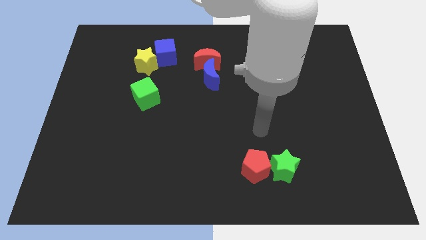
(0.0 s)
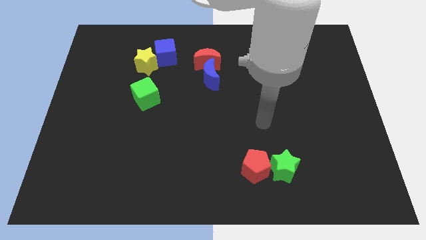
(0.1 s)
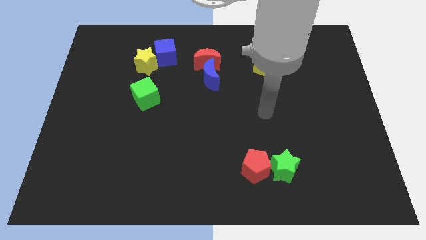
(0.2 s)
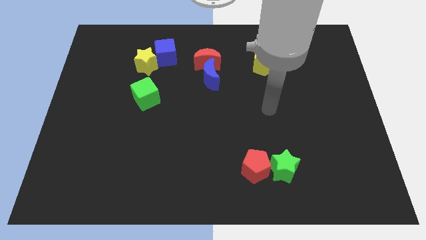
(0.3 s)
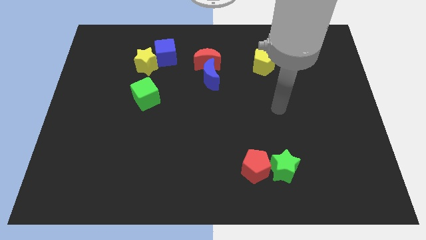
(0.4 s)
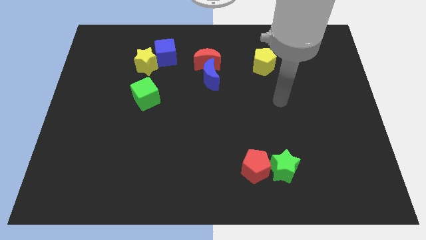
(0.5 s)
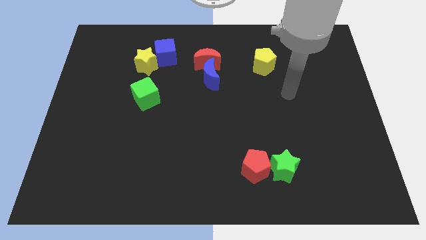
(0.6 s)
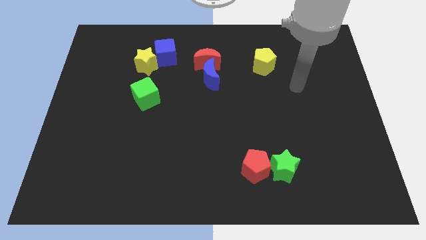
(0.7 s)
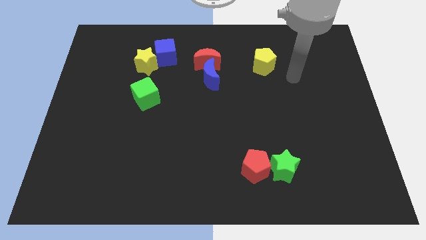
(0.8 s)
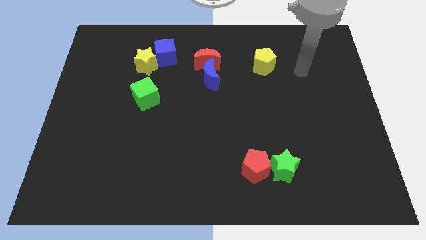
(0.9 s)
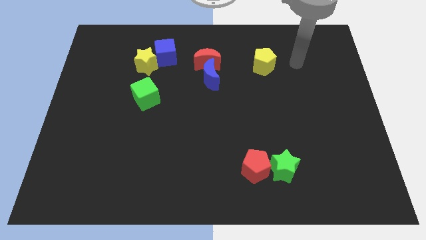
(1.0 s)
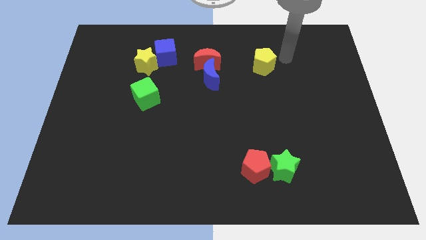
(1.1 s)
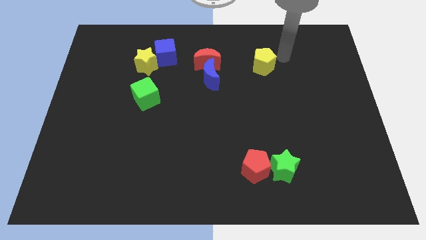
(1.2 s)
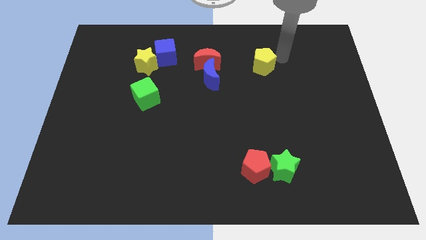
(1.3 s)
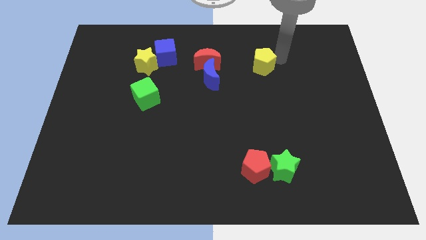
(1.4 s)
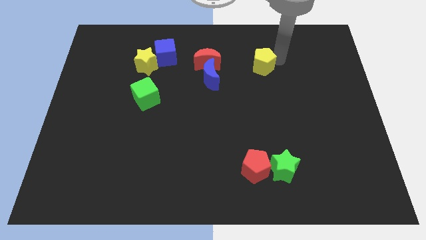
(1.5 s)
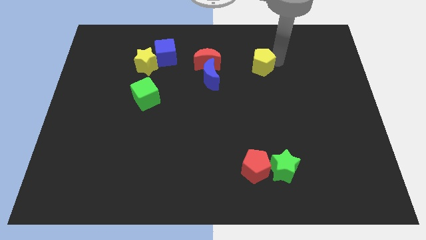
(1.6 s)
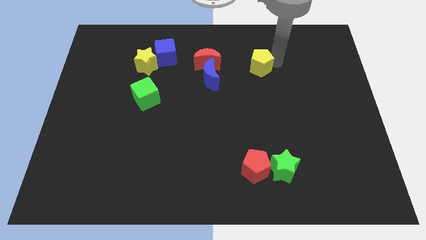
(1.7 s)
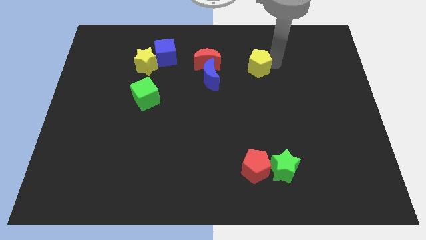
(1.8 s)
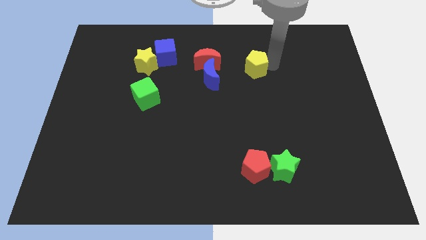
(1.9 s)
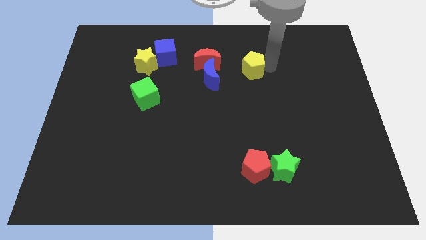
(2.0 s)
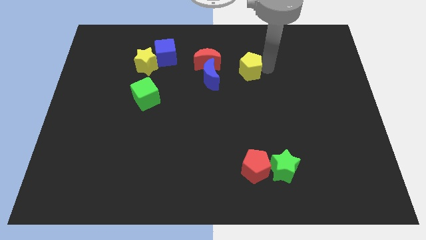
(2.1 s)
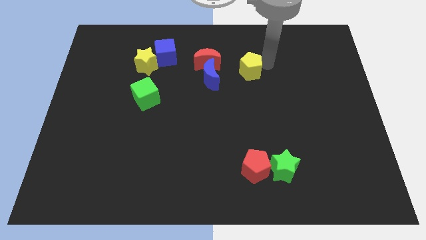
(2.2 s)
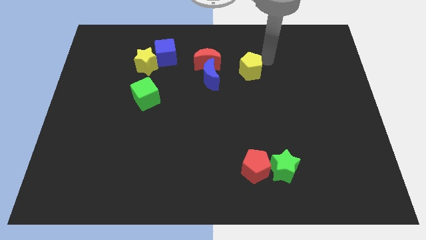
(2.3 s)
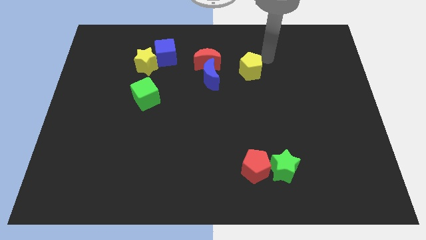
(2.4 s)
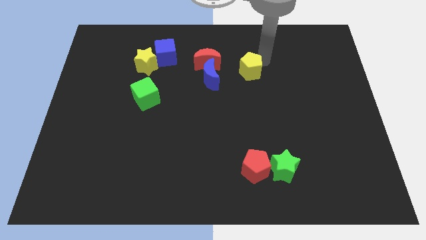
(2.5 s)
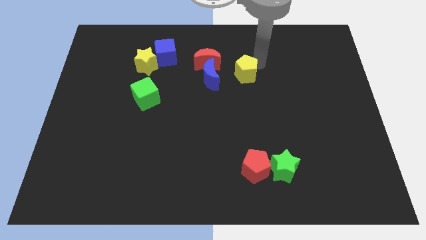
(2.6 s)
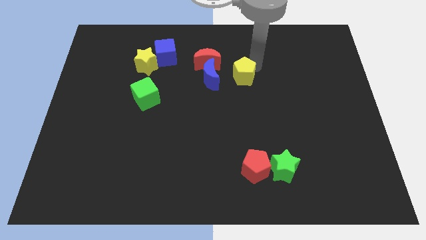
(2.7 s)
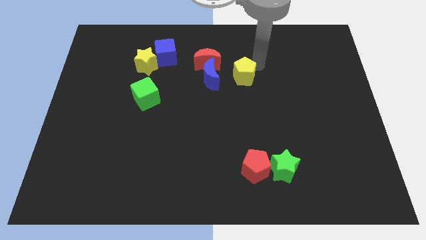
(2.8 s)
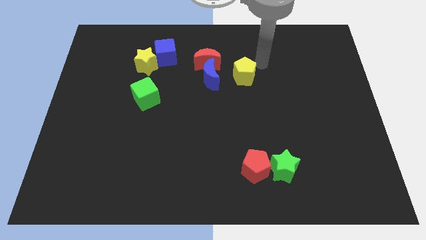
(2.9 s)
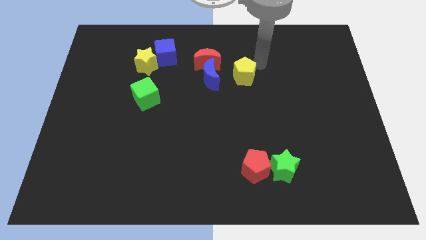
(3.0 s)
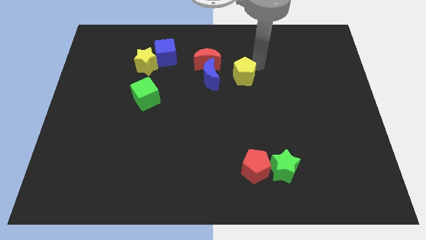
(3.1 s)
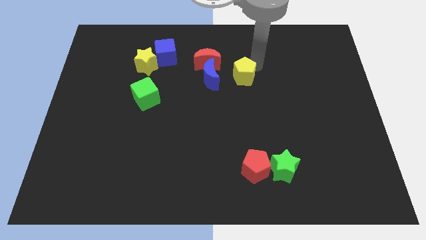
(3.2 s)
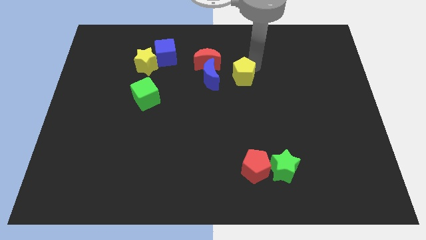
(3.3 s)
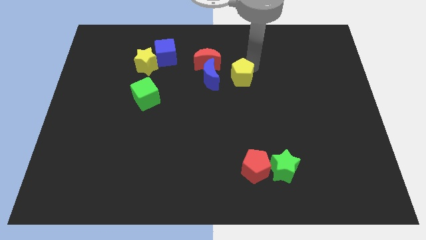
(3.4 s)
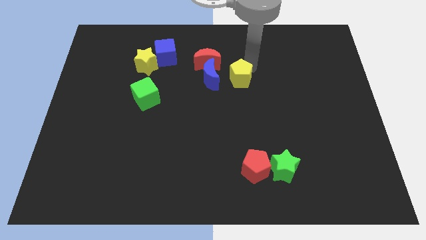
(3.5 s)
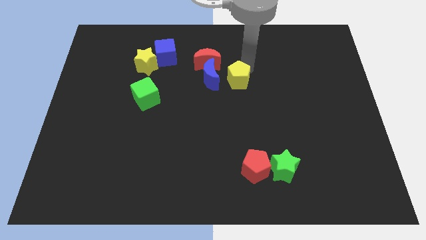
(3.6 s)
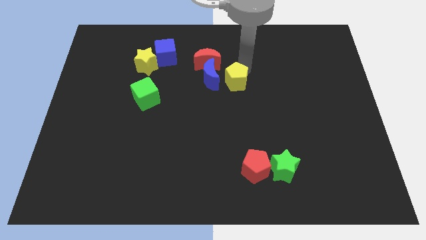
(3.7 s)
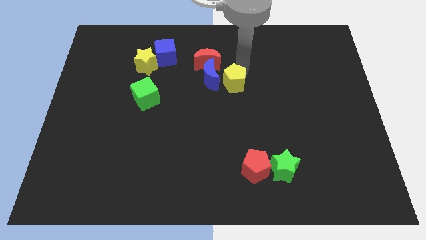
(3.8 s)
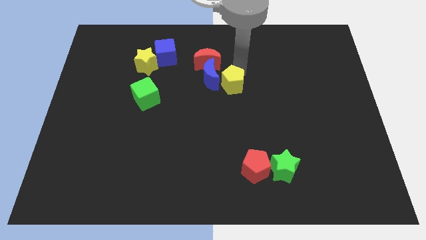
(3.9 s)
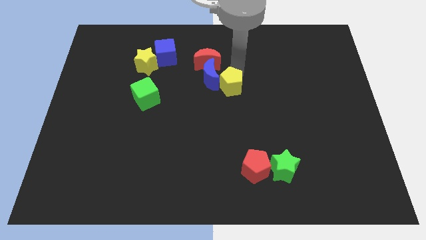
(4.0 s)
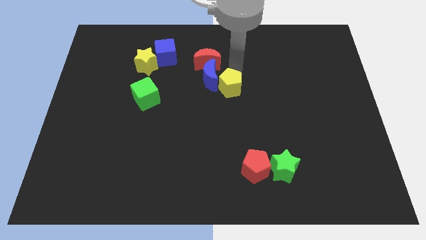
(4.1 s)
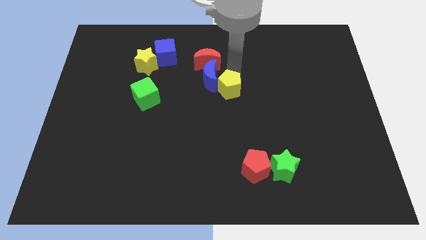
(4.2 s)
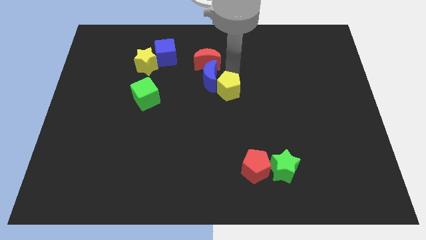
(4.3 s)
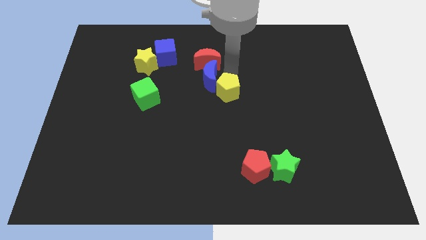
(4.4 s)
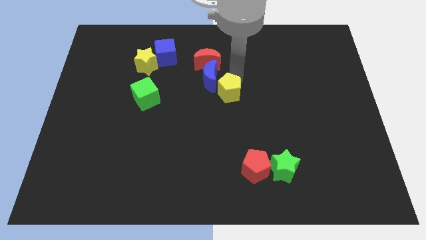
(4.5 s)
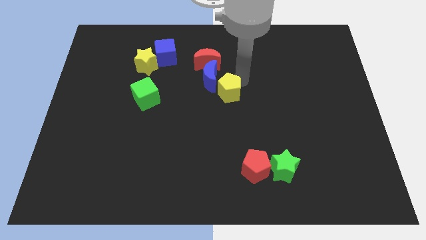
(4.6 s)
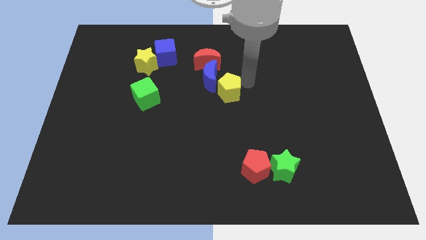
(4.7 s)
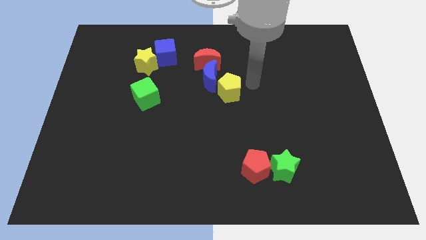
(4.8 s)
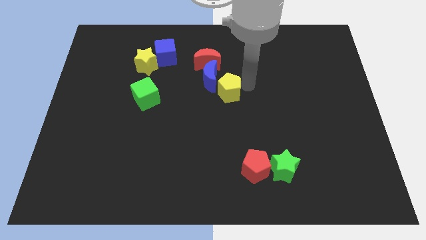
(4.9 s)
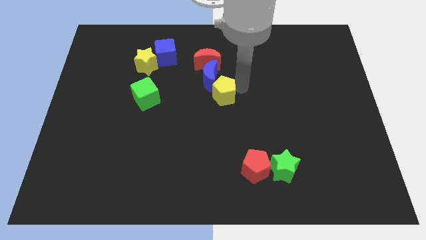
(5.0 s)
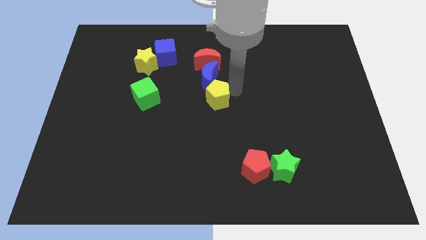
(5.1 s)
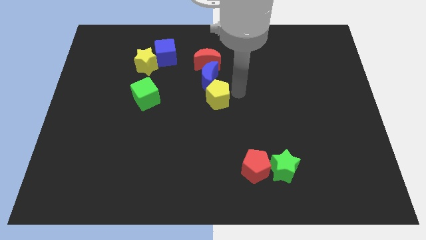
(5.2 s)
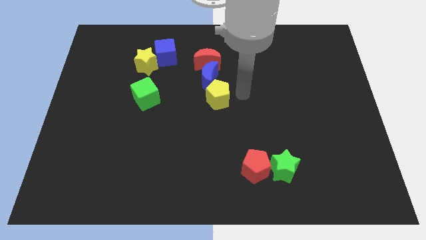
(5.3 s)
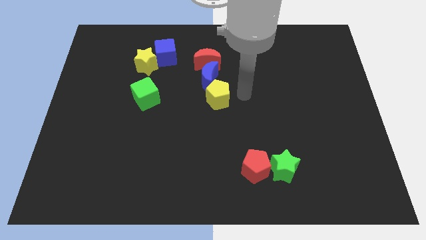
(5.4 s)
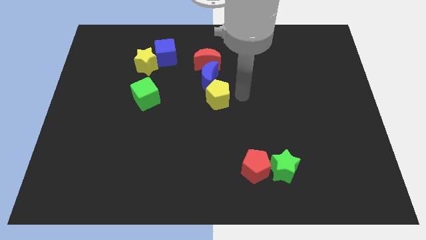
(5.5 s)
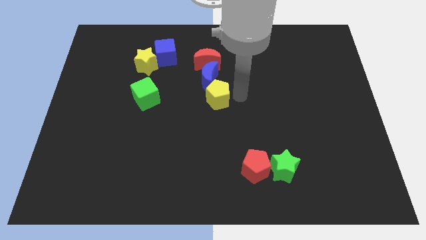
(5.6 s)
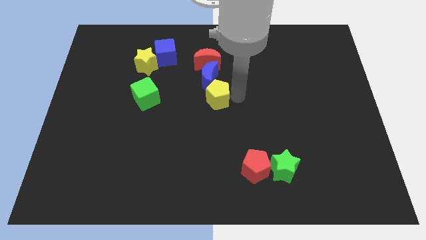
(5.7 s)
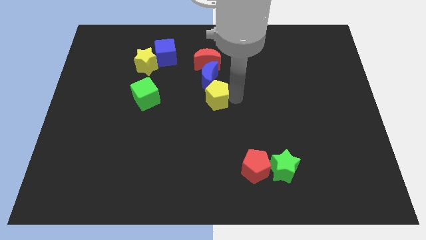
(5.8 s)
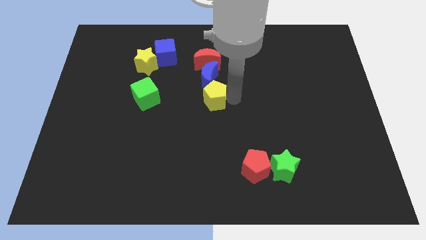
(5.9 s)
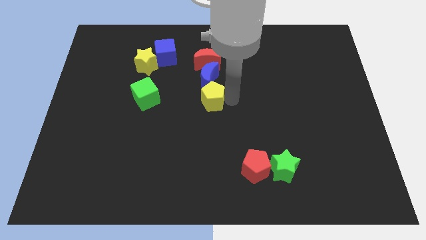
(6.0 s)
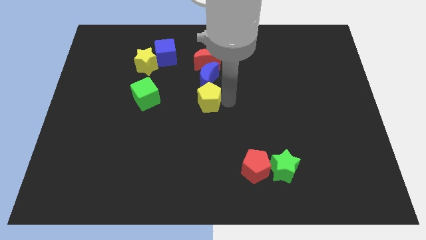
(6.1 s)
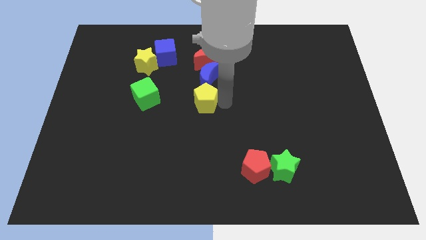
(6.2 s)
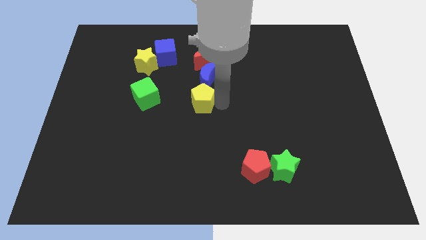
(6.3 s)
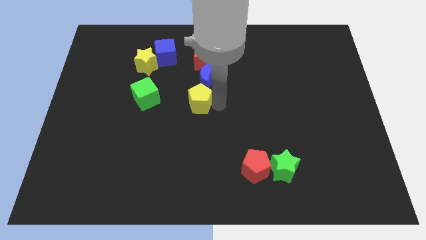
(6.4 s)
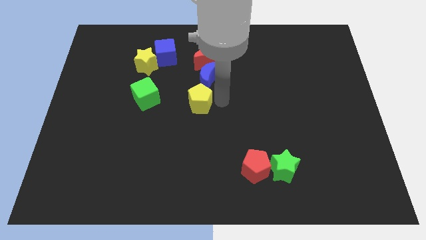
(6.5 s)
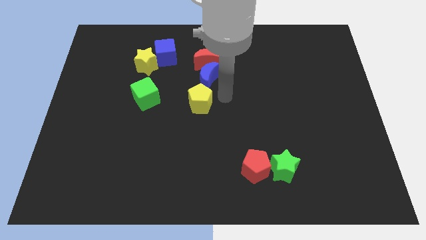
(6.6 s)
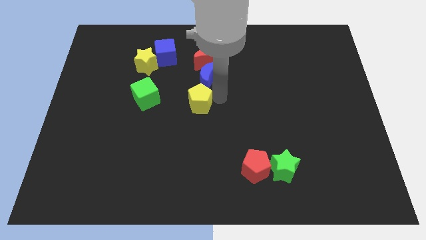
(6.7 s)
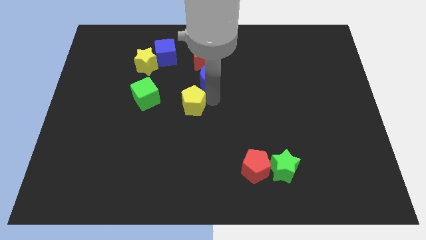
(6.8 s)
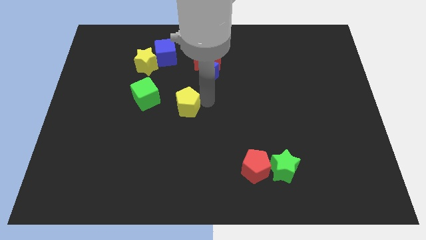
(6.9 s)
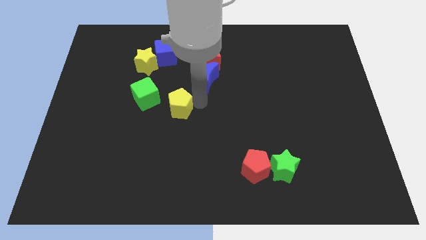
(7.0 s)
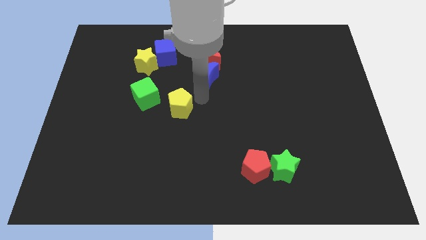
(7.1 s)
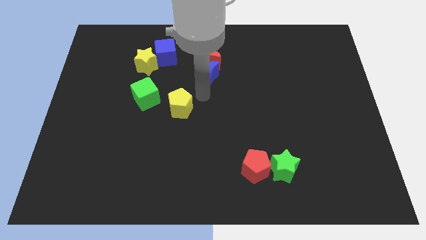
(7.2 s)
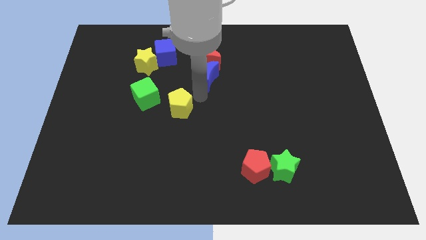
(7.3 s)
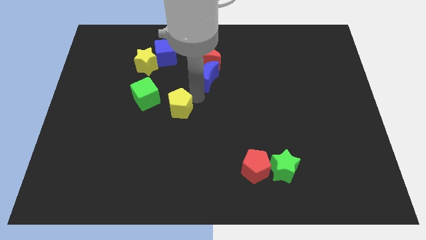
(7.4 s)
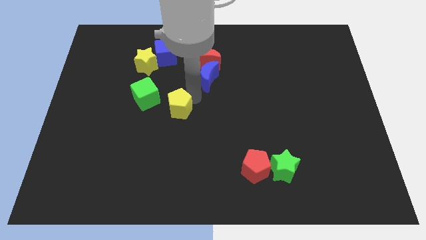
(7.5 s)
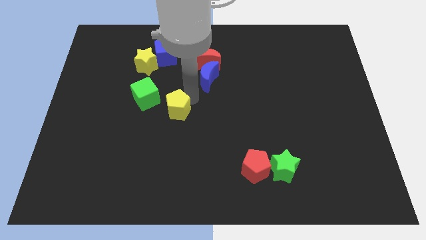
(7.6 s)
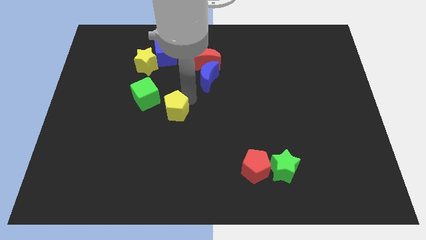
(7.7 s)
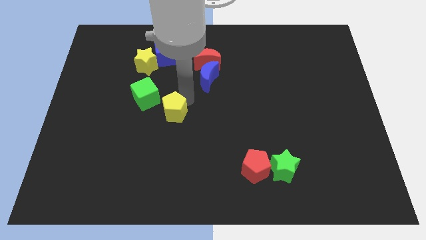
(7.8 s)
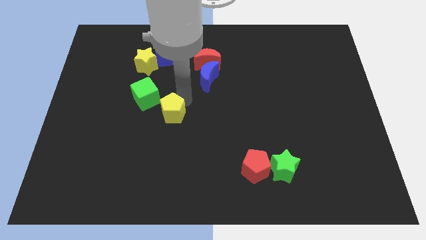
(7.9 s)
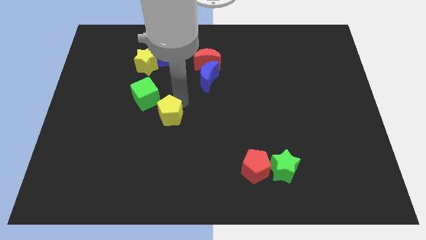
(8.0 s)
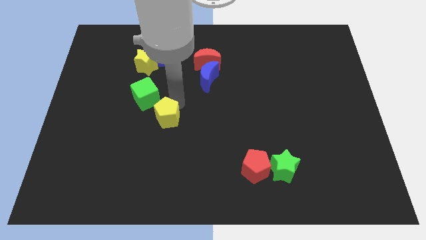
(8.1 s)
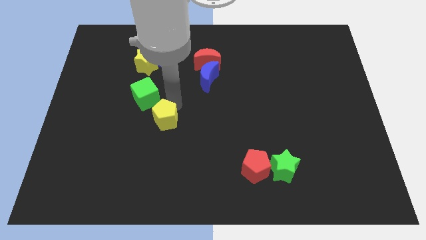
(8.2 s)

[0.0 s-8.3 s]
push the yellow pentagon below the green cube
